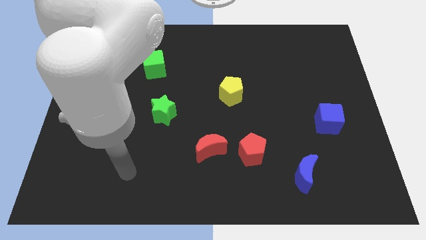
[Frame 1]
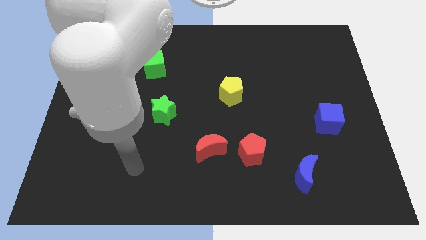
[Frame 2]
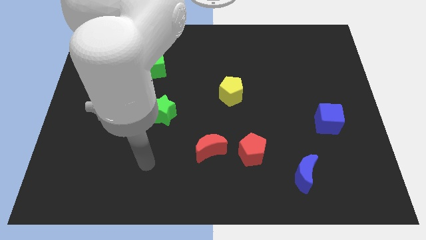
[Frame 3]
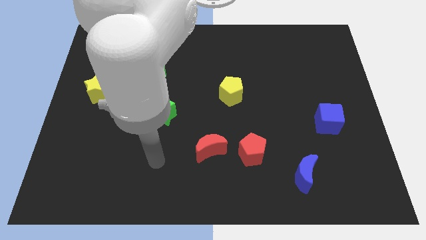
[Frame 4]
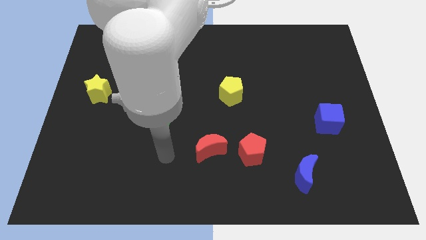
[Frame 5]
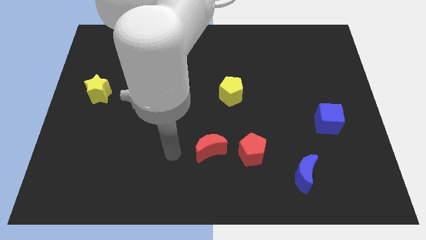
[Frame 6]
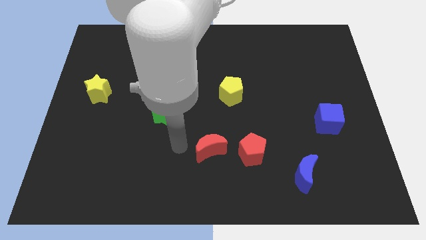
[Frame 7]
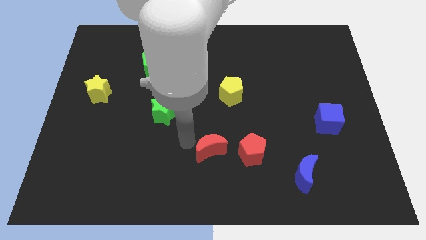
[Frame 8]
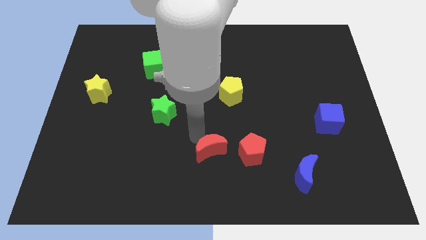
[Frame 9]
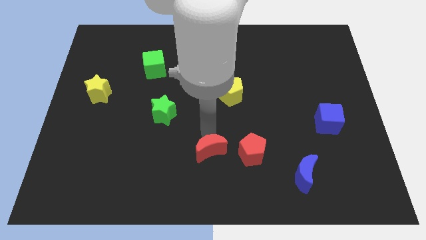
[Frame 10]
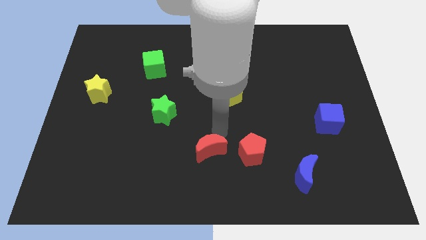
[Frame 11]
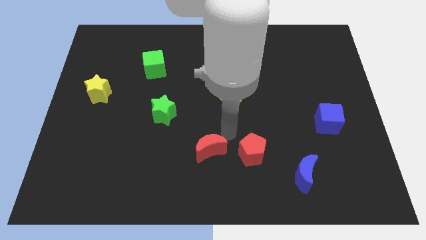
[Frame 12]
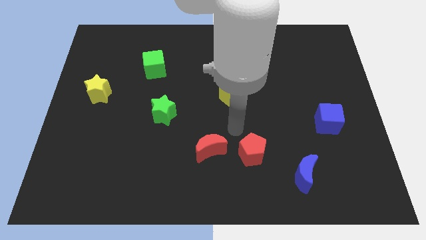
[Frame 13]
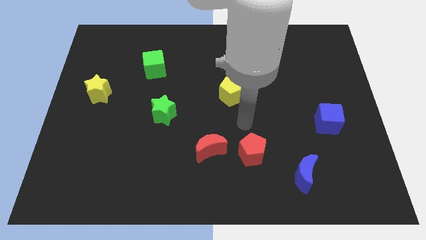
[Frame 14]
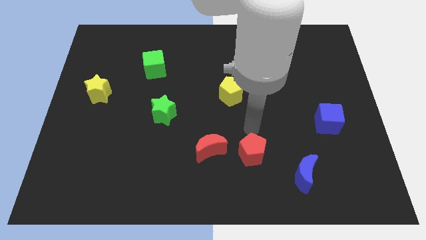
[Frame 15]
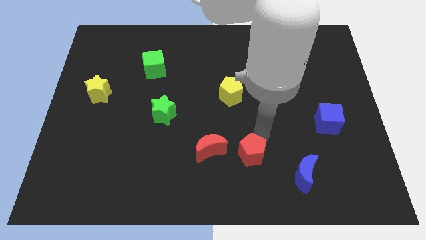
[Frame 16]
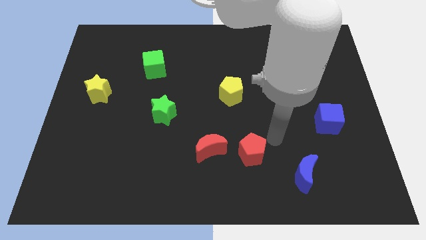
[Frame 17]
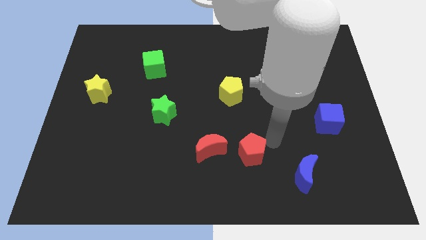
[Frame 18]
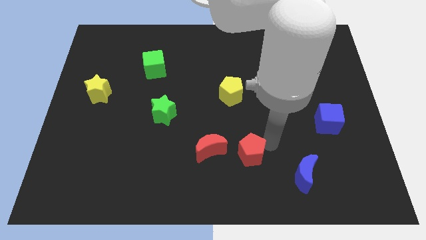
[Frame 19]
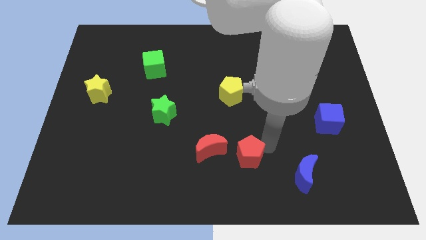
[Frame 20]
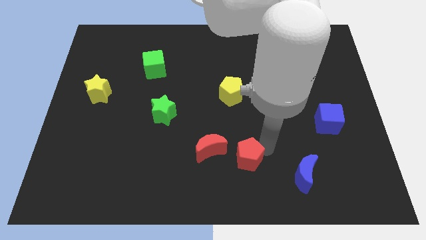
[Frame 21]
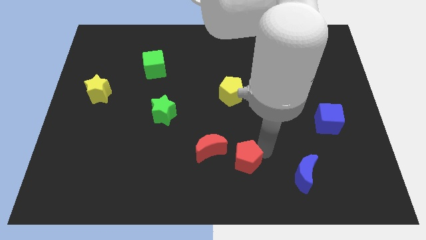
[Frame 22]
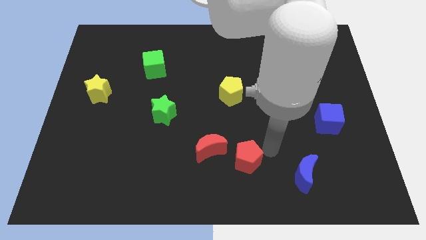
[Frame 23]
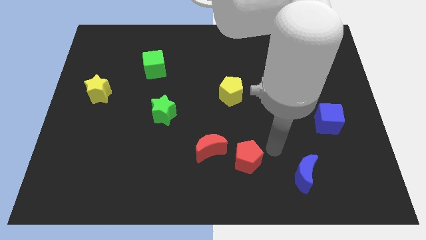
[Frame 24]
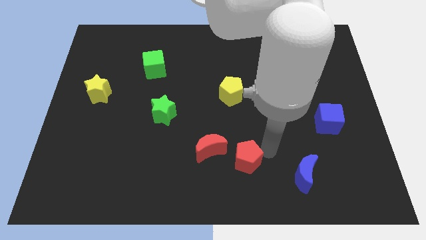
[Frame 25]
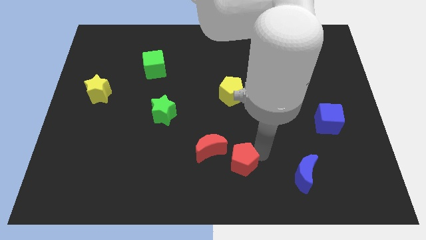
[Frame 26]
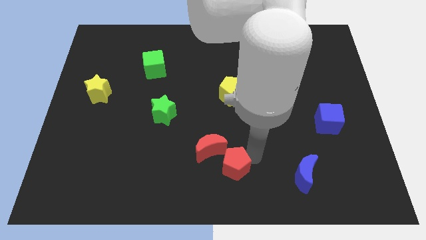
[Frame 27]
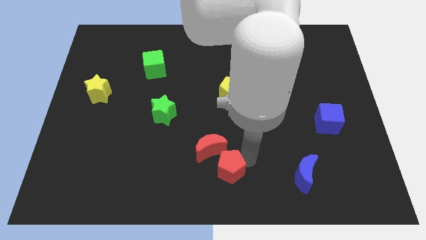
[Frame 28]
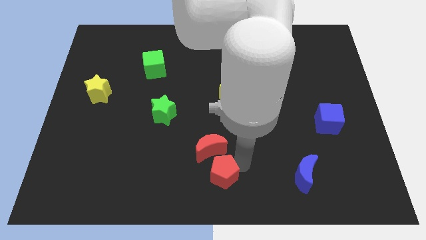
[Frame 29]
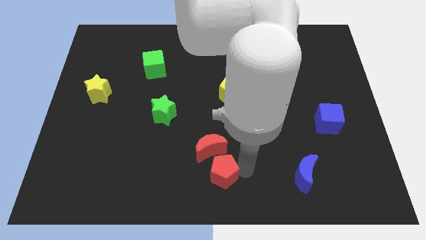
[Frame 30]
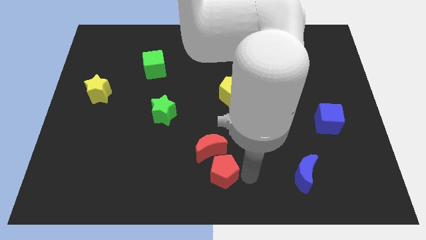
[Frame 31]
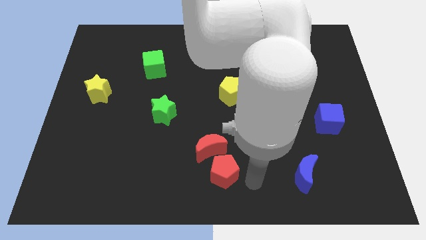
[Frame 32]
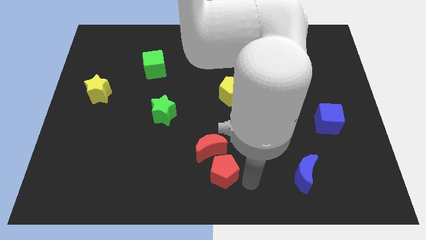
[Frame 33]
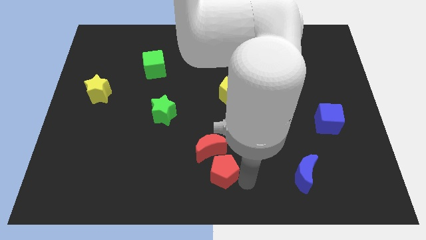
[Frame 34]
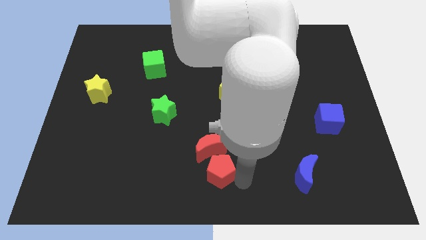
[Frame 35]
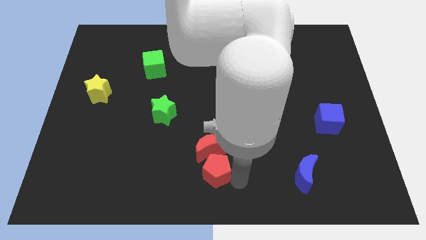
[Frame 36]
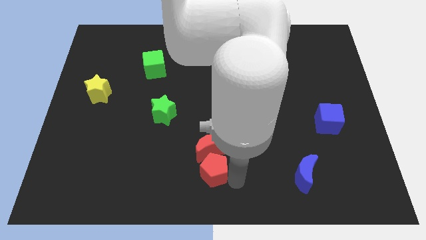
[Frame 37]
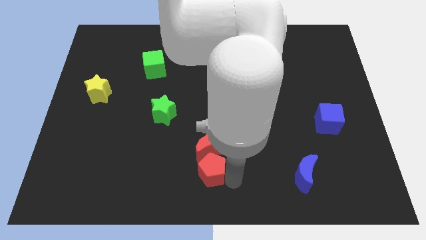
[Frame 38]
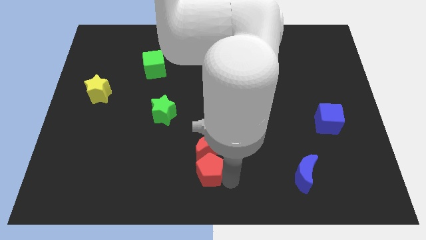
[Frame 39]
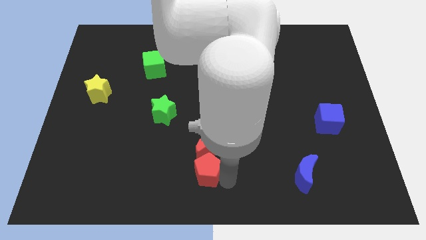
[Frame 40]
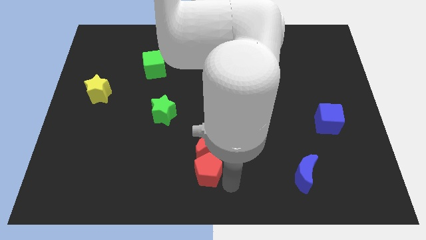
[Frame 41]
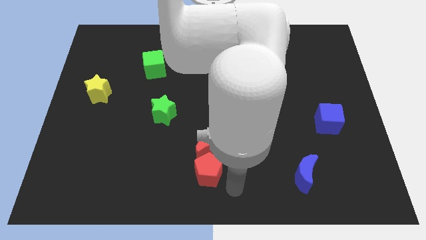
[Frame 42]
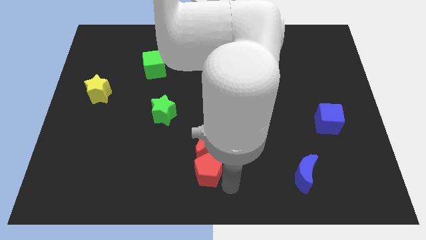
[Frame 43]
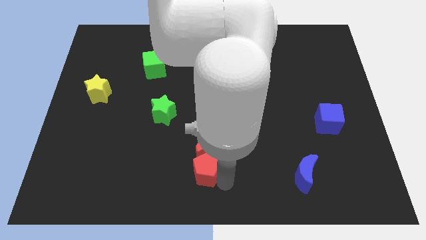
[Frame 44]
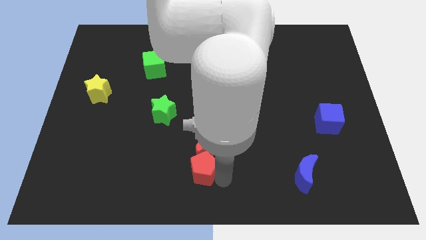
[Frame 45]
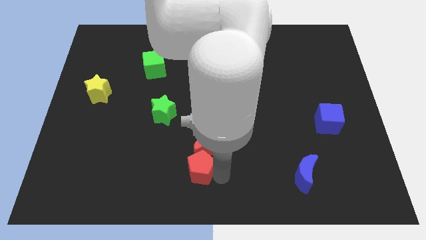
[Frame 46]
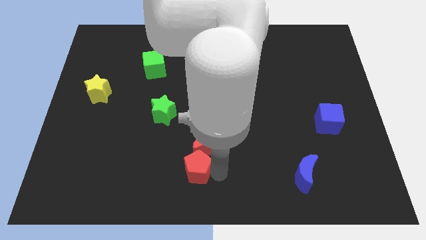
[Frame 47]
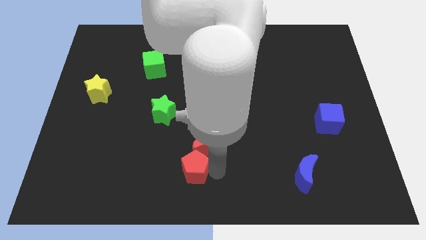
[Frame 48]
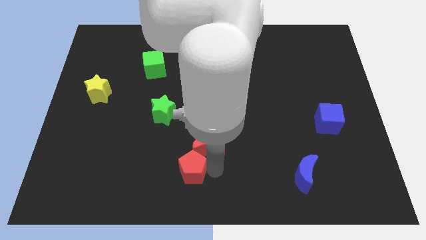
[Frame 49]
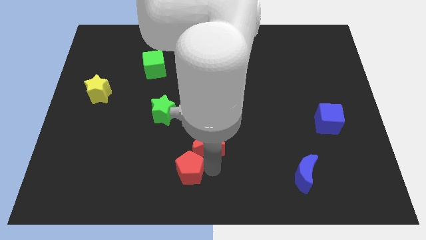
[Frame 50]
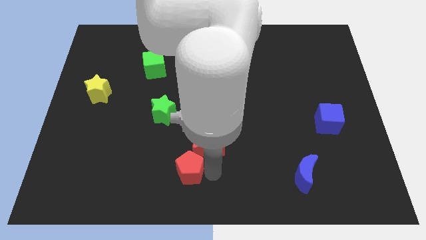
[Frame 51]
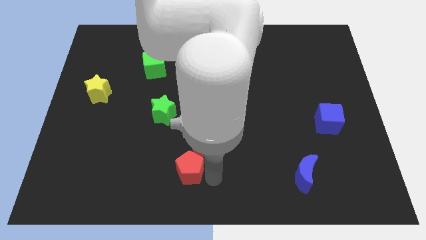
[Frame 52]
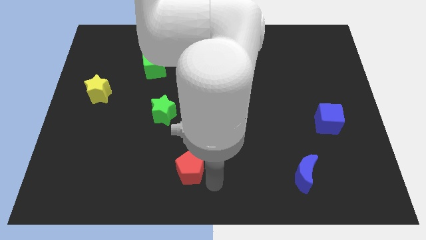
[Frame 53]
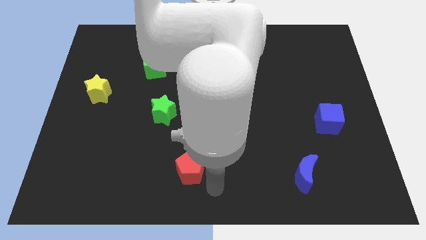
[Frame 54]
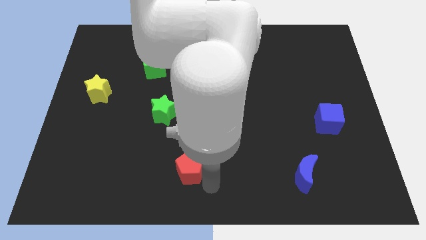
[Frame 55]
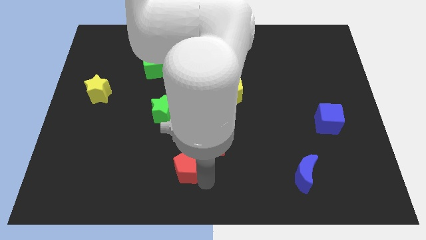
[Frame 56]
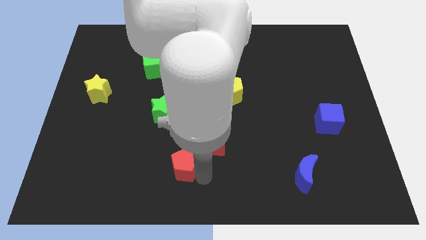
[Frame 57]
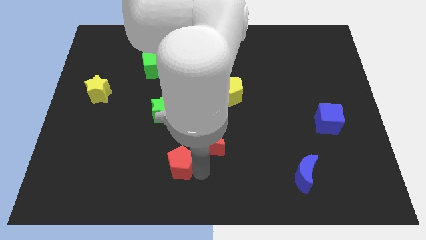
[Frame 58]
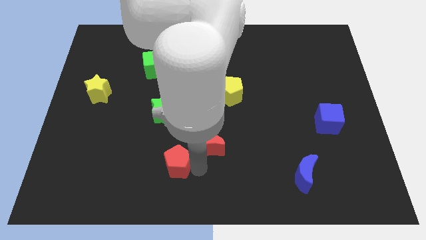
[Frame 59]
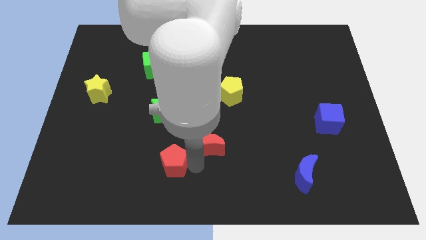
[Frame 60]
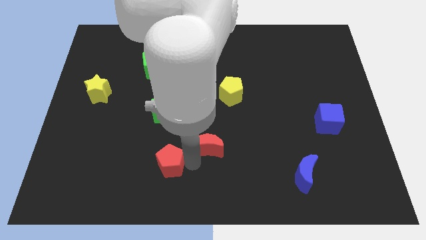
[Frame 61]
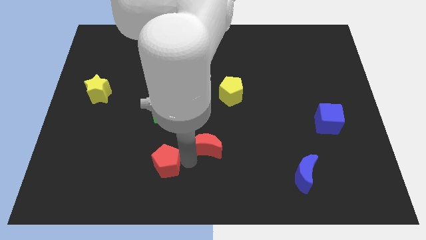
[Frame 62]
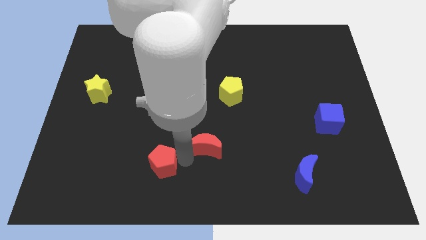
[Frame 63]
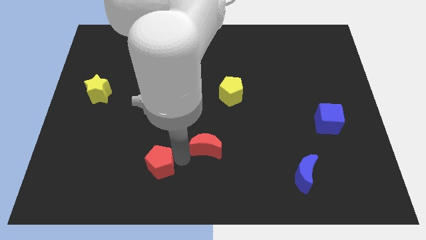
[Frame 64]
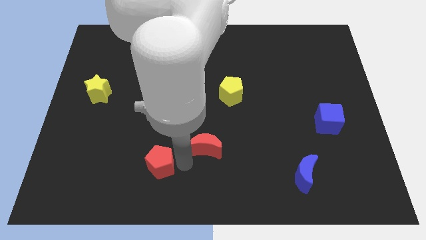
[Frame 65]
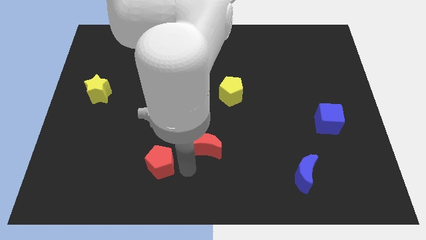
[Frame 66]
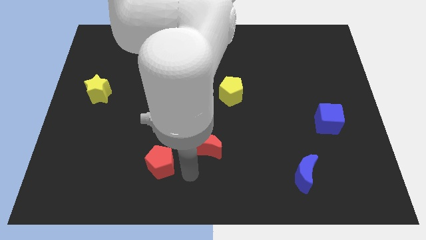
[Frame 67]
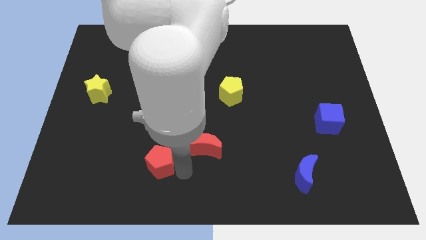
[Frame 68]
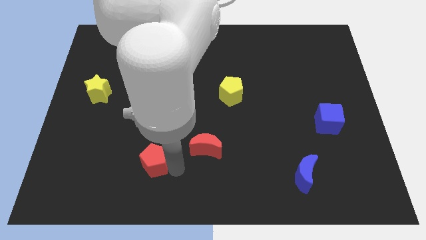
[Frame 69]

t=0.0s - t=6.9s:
push the red pentagon to the left

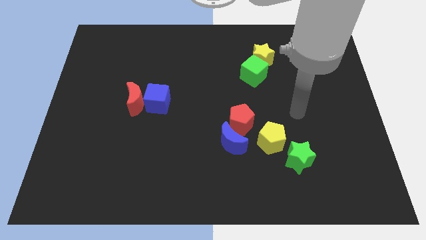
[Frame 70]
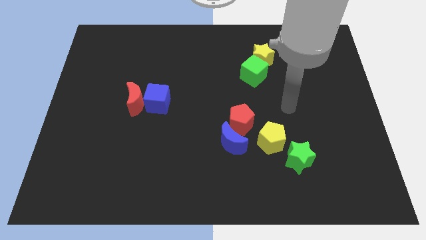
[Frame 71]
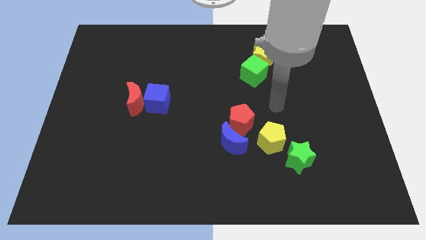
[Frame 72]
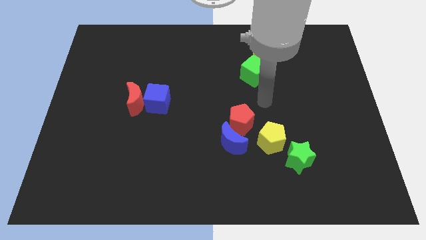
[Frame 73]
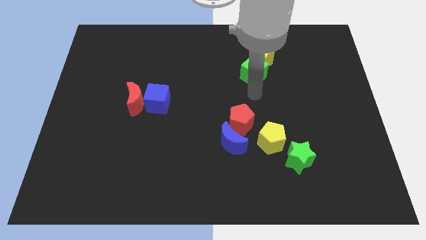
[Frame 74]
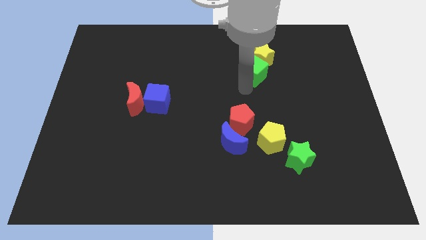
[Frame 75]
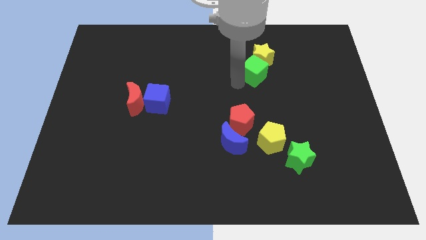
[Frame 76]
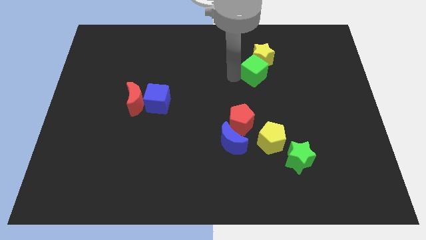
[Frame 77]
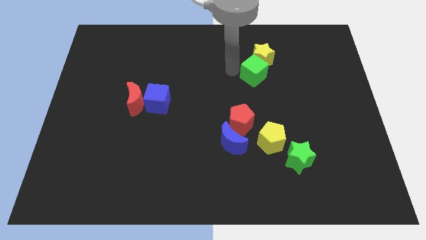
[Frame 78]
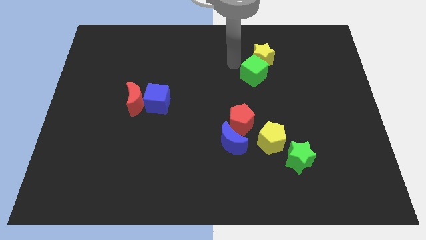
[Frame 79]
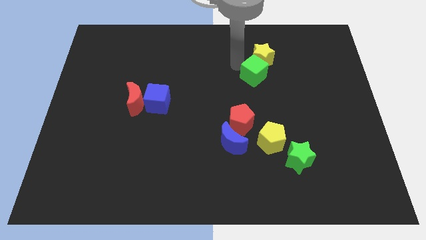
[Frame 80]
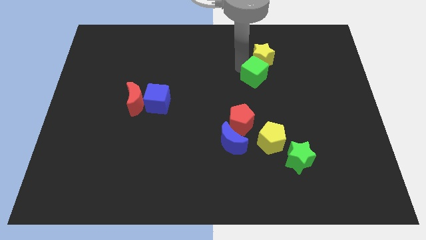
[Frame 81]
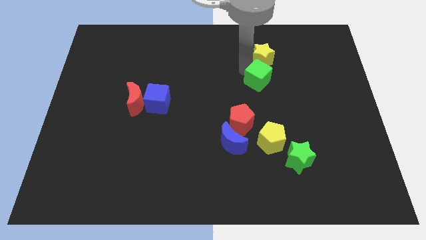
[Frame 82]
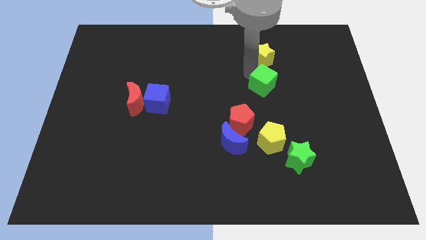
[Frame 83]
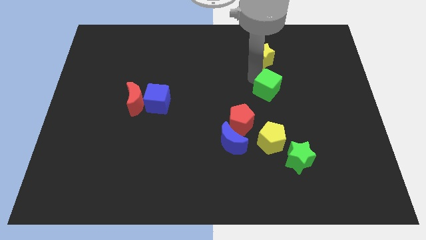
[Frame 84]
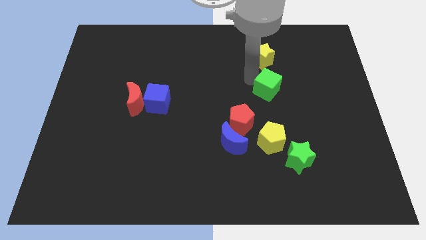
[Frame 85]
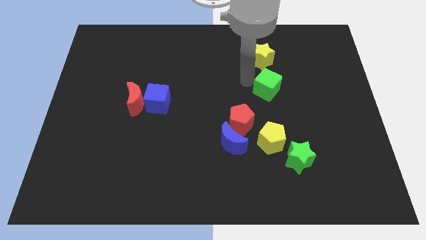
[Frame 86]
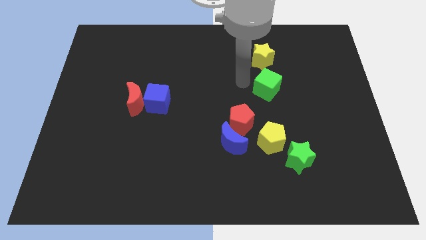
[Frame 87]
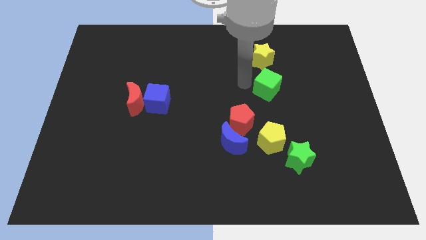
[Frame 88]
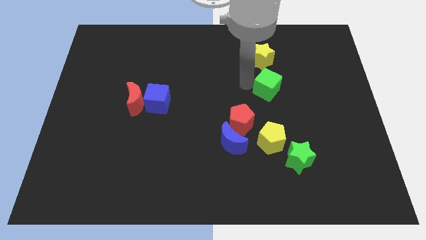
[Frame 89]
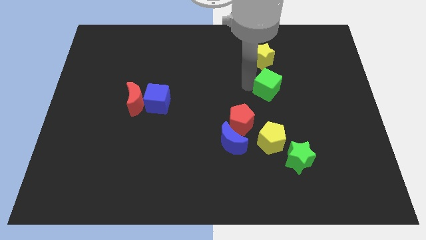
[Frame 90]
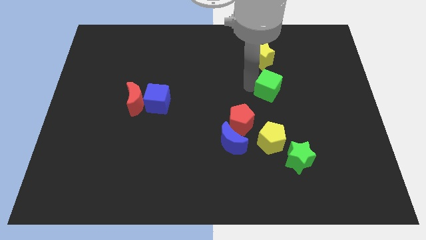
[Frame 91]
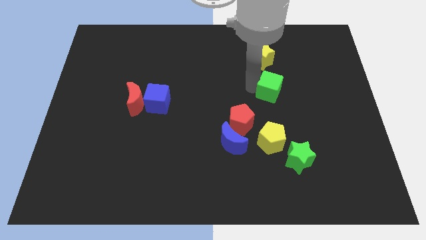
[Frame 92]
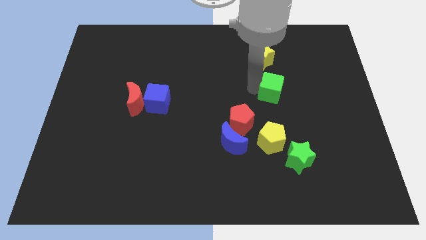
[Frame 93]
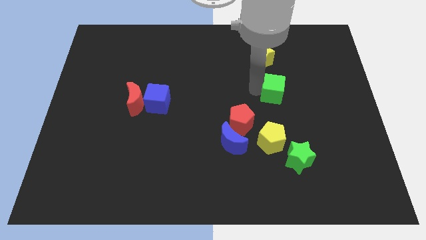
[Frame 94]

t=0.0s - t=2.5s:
slide the green cube diagonally down and to the right a little bit
